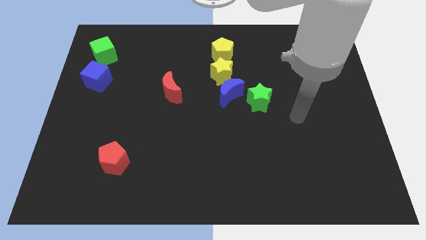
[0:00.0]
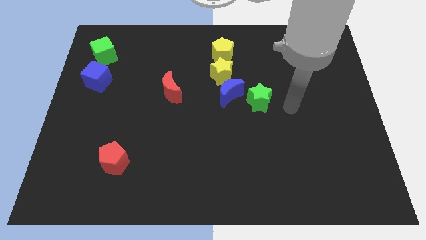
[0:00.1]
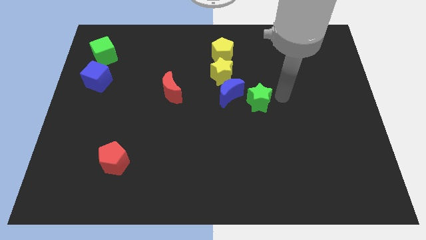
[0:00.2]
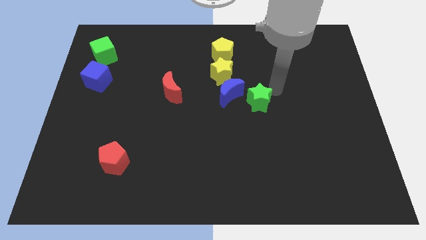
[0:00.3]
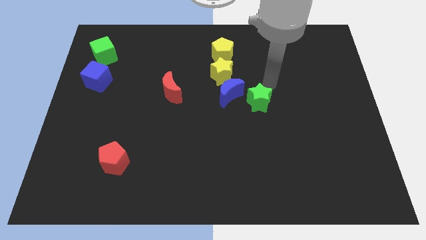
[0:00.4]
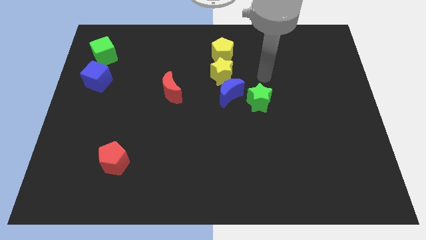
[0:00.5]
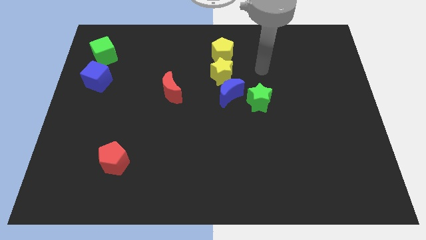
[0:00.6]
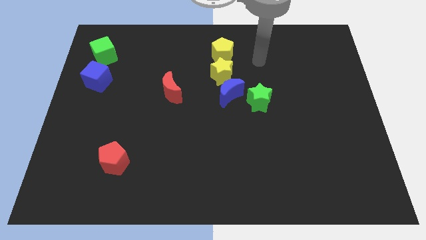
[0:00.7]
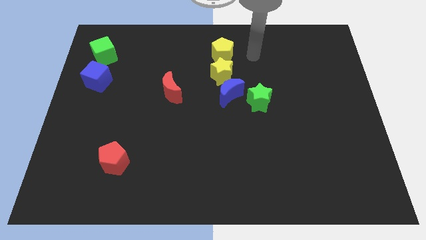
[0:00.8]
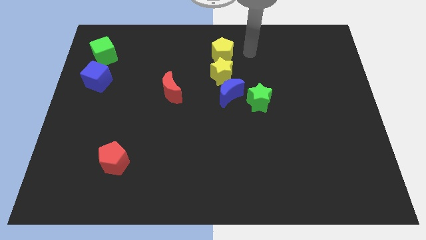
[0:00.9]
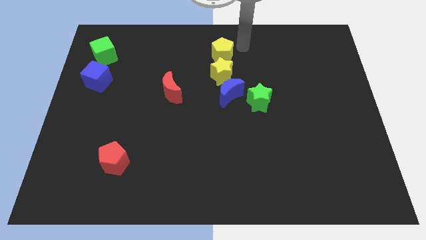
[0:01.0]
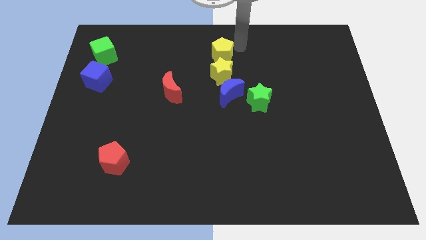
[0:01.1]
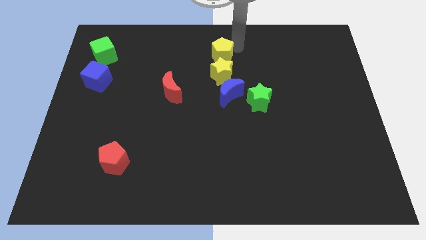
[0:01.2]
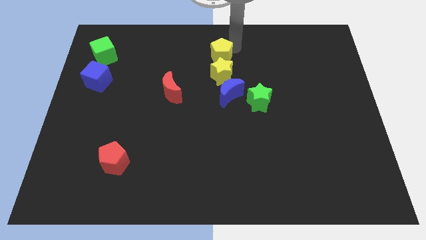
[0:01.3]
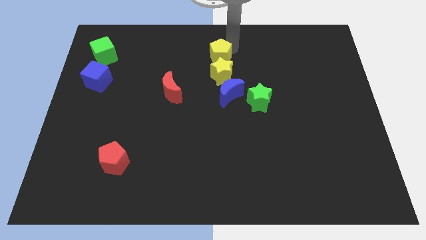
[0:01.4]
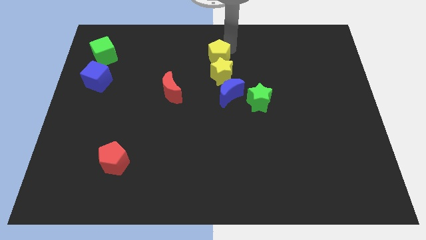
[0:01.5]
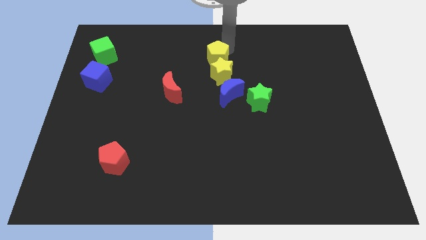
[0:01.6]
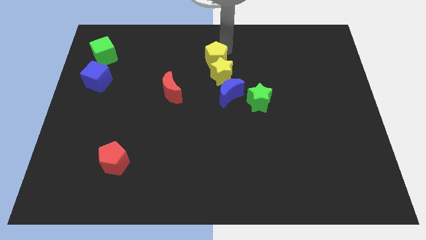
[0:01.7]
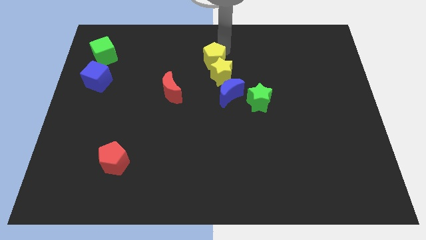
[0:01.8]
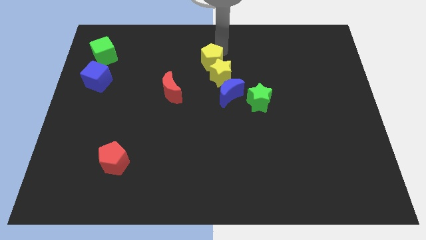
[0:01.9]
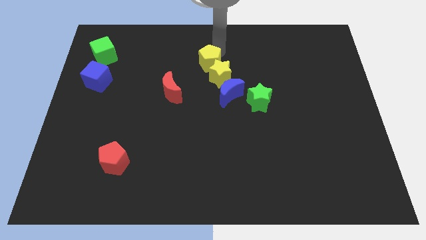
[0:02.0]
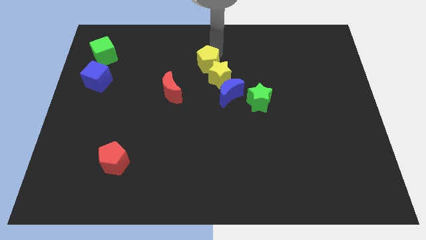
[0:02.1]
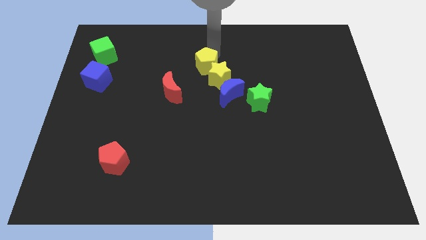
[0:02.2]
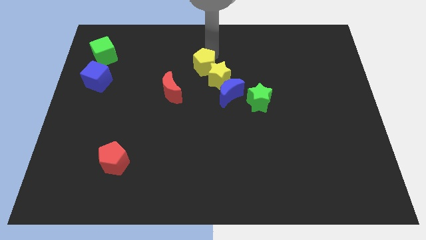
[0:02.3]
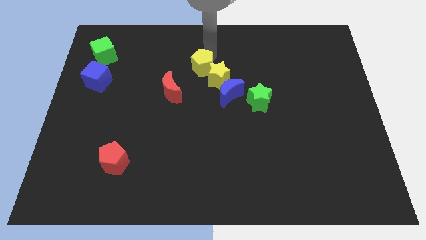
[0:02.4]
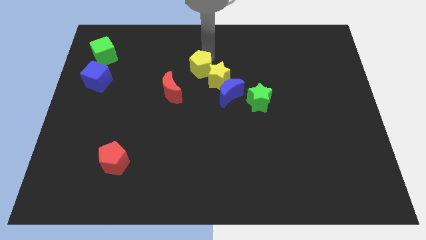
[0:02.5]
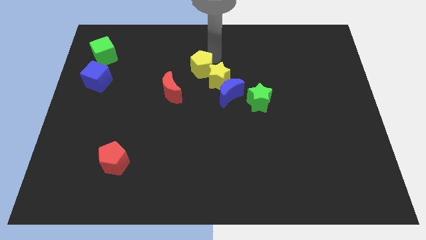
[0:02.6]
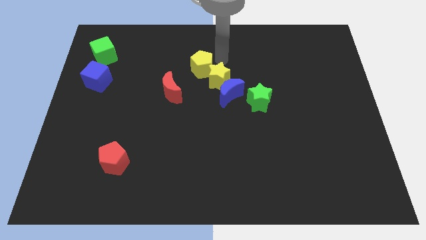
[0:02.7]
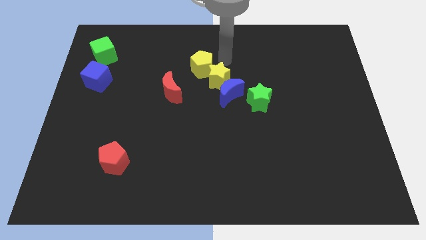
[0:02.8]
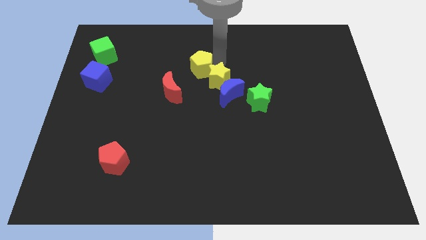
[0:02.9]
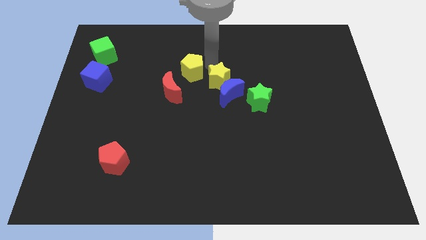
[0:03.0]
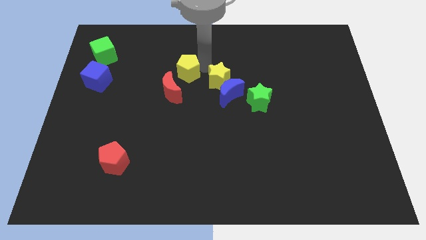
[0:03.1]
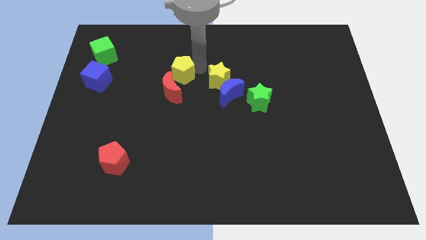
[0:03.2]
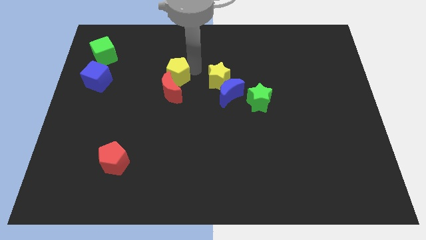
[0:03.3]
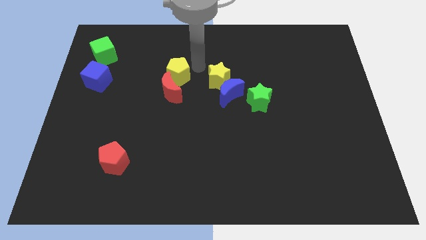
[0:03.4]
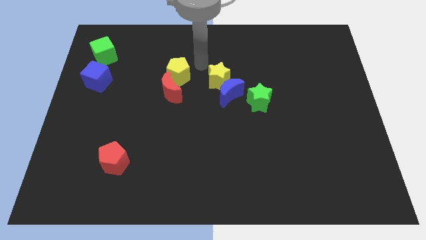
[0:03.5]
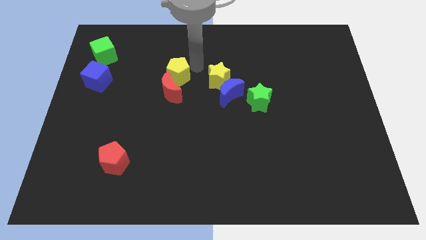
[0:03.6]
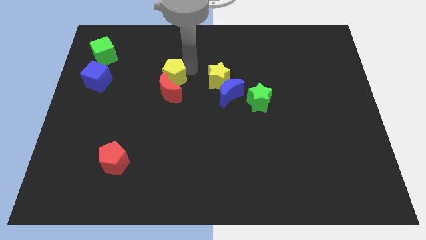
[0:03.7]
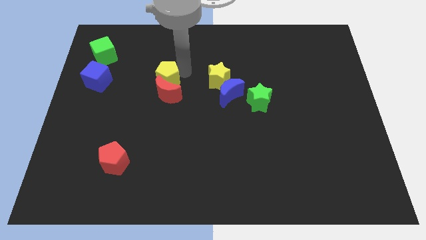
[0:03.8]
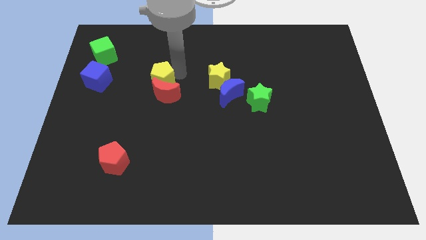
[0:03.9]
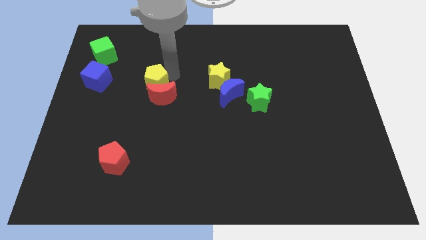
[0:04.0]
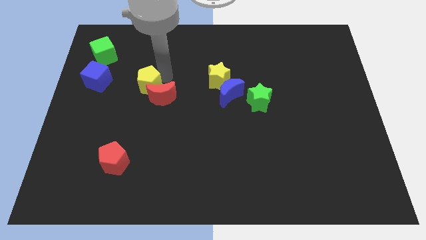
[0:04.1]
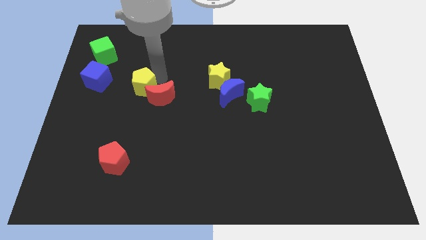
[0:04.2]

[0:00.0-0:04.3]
slide the yellow pentagon down and left diagonally

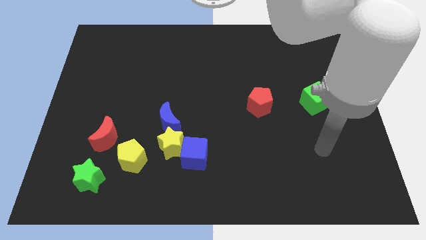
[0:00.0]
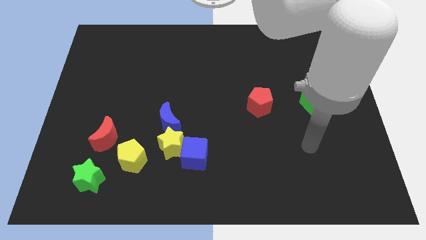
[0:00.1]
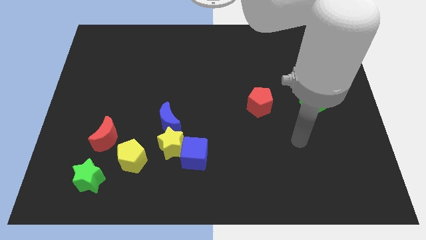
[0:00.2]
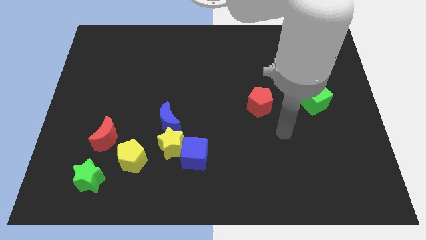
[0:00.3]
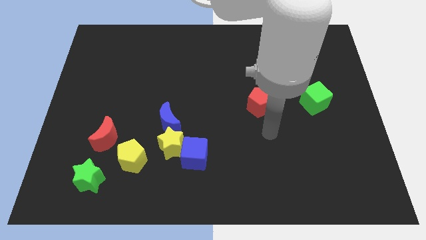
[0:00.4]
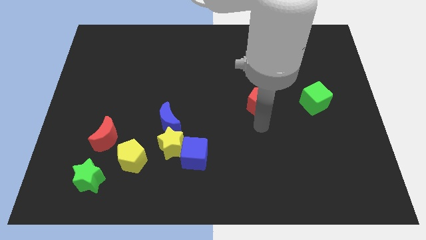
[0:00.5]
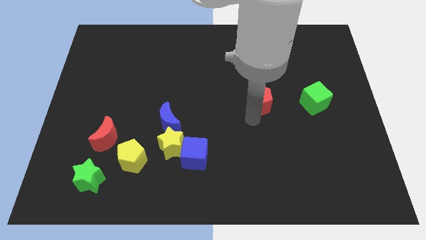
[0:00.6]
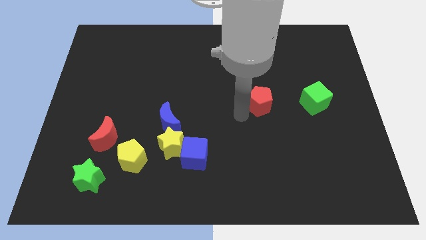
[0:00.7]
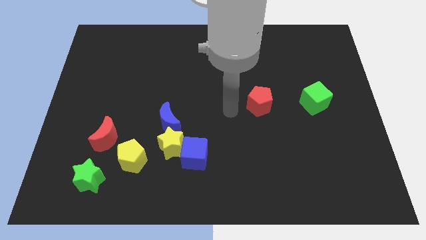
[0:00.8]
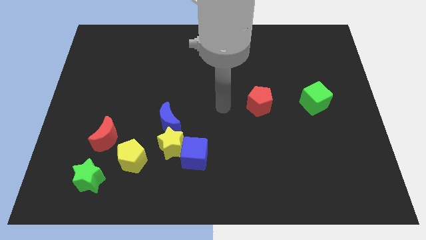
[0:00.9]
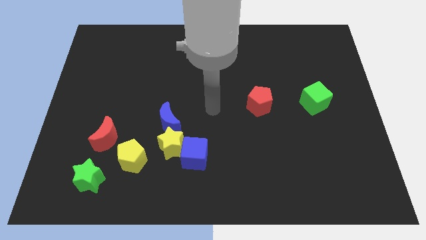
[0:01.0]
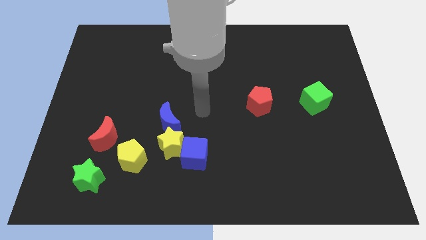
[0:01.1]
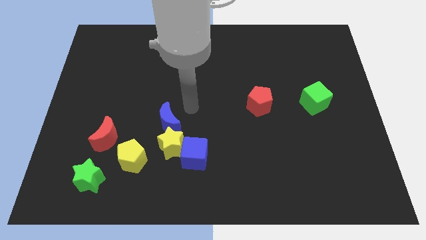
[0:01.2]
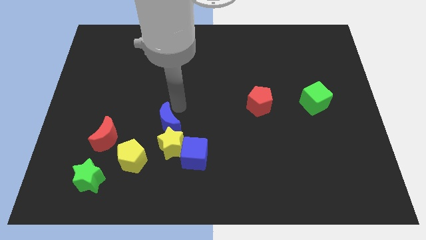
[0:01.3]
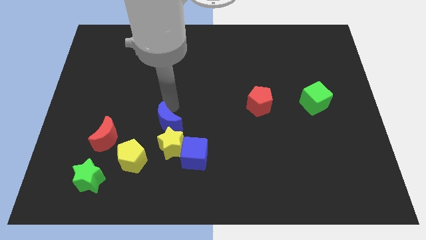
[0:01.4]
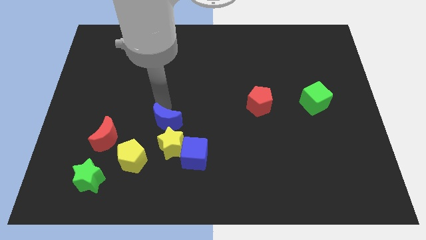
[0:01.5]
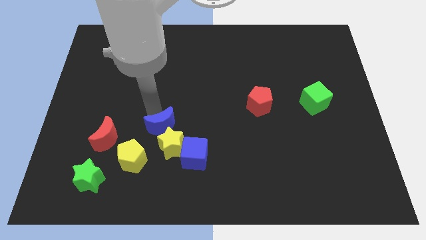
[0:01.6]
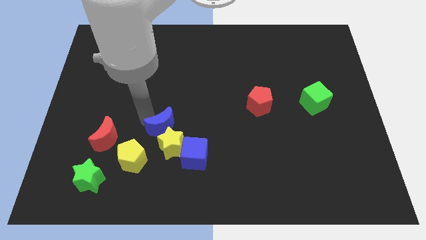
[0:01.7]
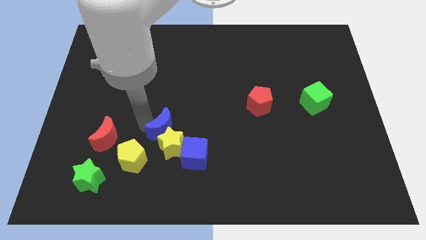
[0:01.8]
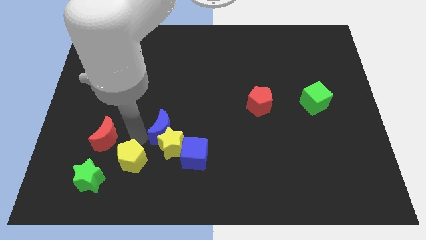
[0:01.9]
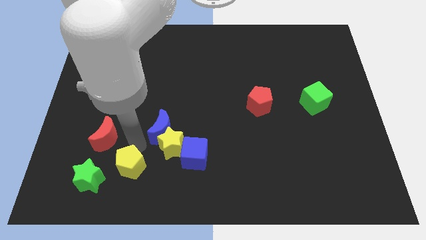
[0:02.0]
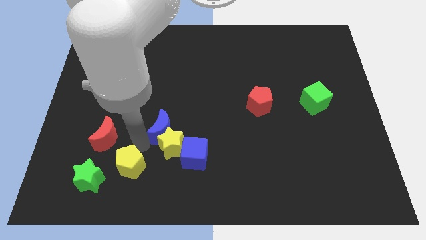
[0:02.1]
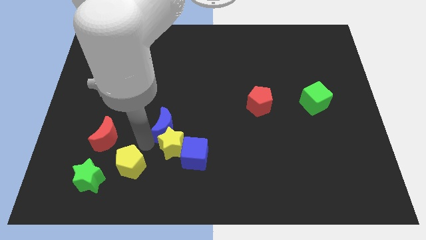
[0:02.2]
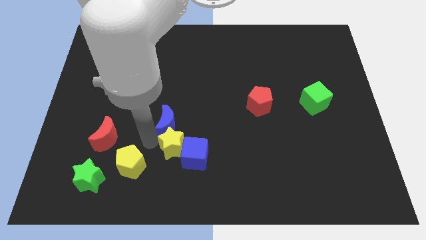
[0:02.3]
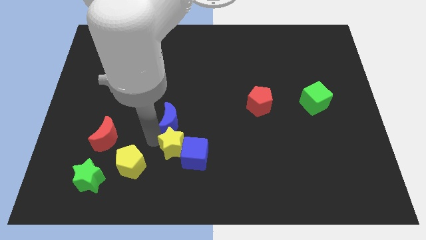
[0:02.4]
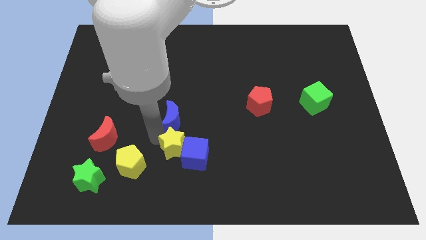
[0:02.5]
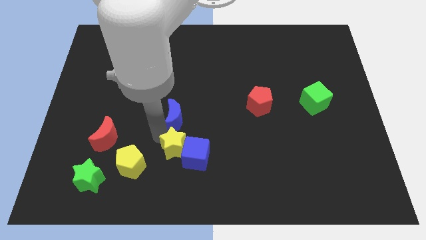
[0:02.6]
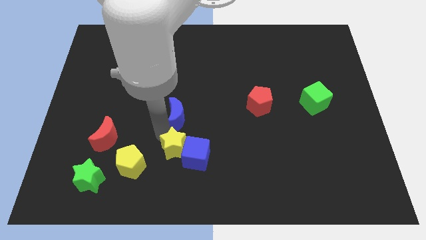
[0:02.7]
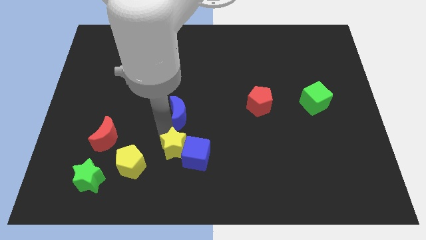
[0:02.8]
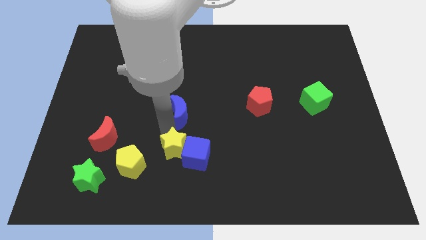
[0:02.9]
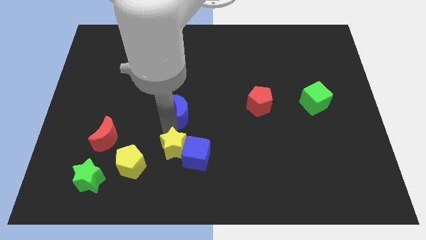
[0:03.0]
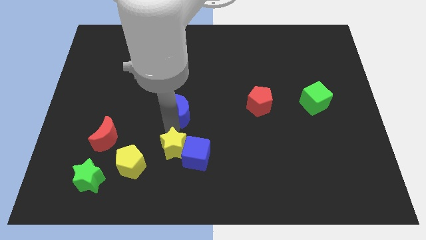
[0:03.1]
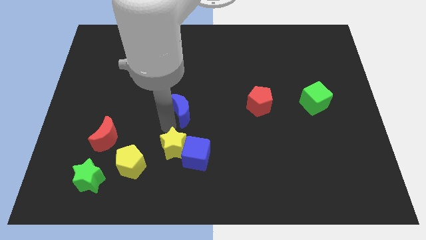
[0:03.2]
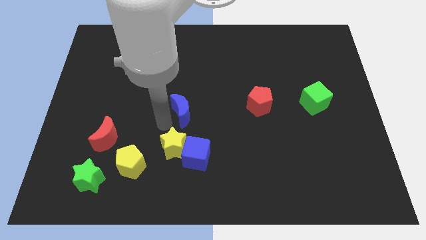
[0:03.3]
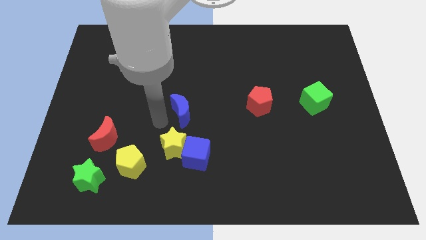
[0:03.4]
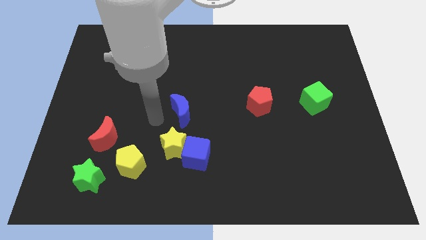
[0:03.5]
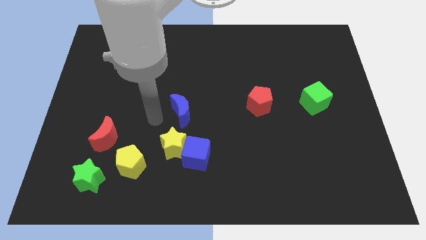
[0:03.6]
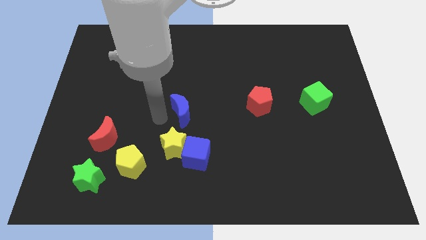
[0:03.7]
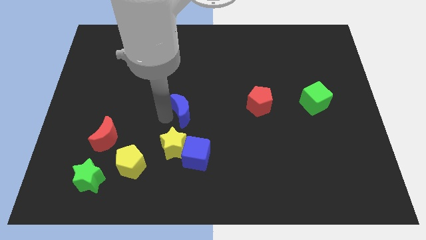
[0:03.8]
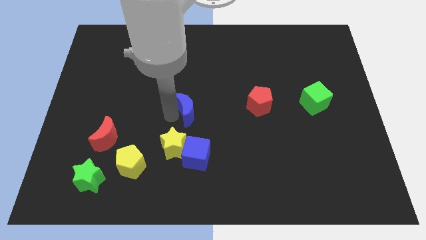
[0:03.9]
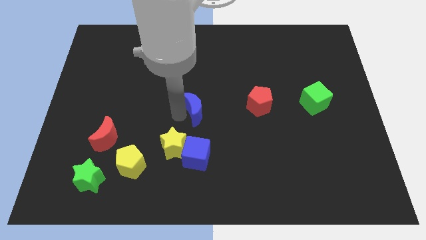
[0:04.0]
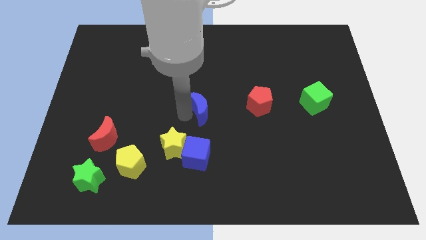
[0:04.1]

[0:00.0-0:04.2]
slightly push the blue moon up and right diagonally
